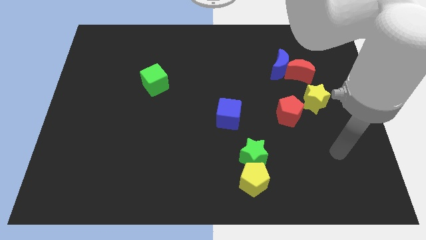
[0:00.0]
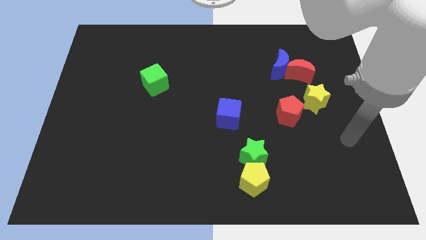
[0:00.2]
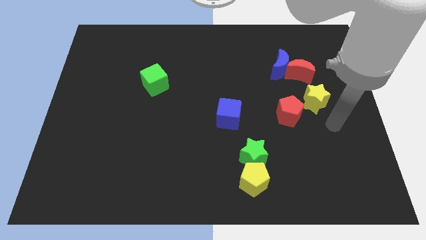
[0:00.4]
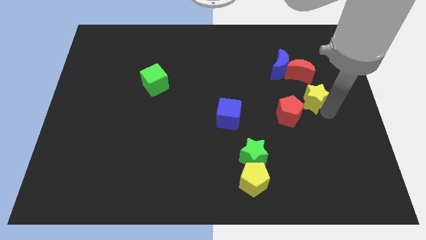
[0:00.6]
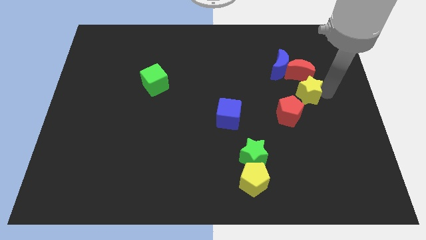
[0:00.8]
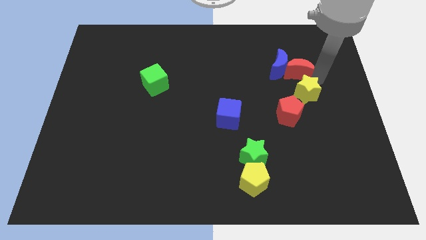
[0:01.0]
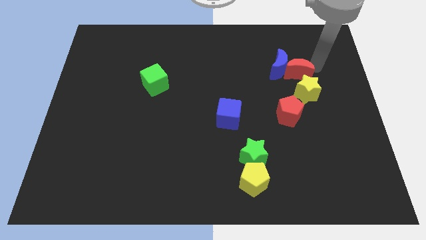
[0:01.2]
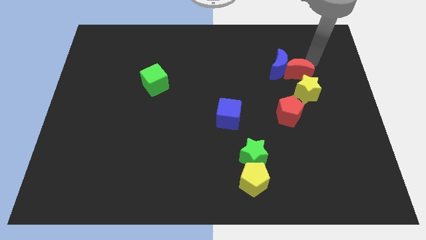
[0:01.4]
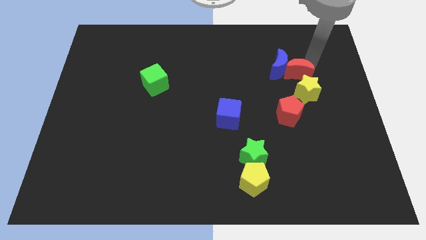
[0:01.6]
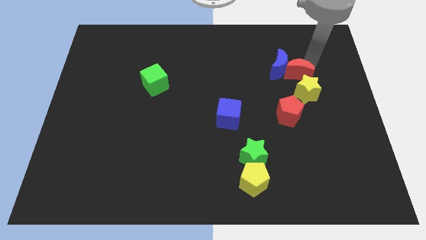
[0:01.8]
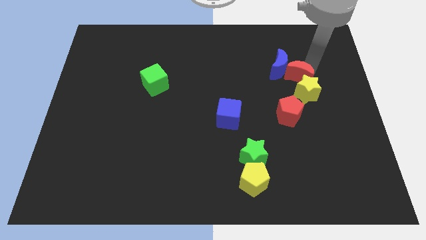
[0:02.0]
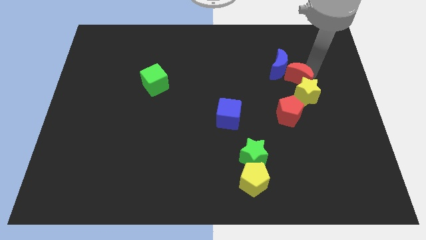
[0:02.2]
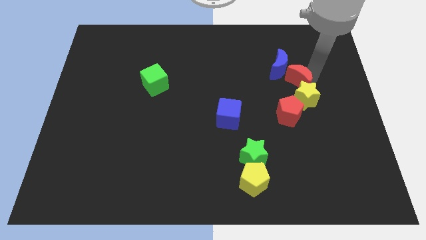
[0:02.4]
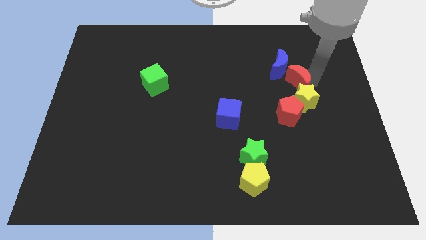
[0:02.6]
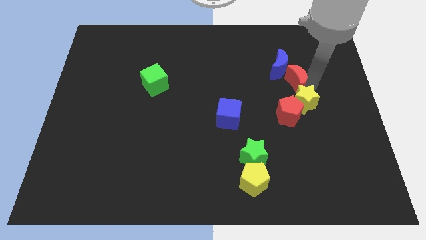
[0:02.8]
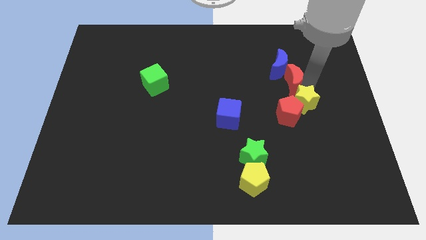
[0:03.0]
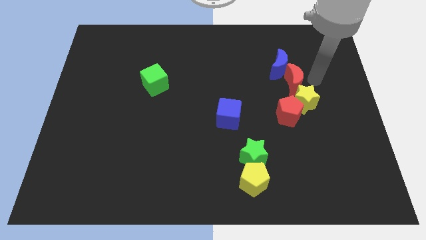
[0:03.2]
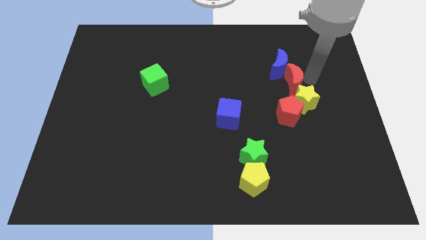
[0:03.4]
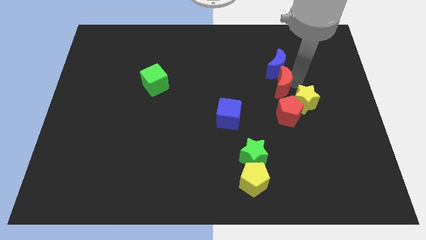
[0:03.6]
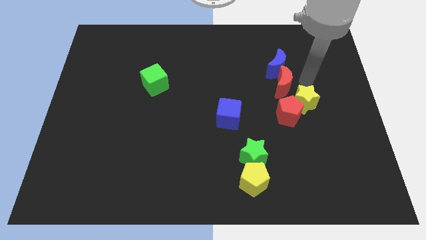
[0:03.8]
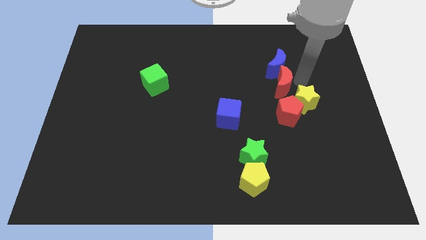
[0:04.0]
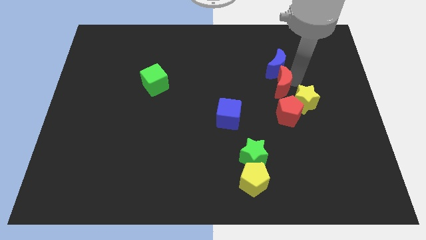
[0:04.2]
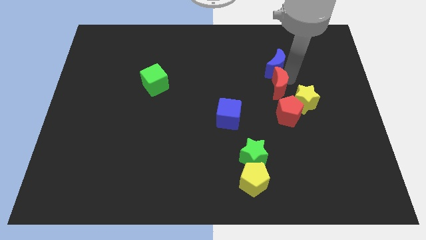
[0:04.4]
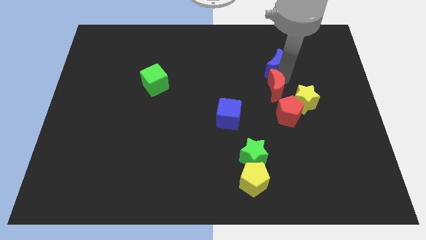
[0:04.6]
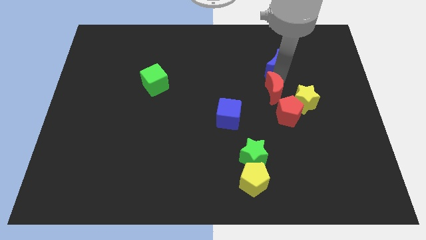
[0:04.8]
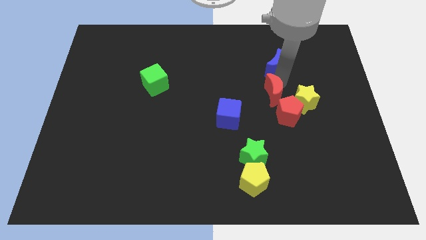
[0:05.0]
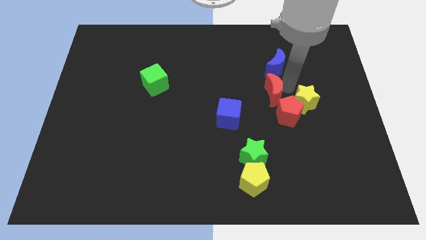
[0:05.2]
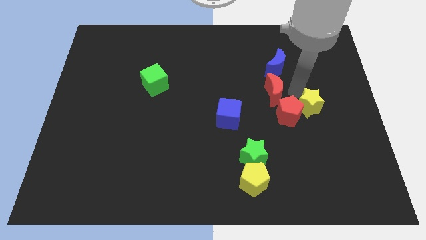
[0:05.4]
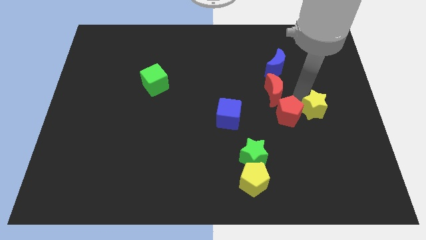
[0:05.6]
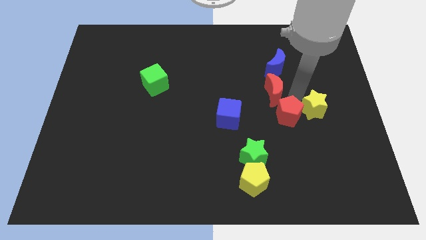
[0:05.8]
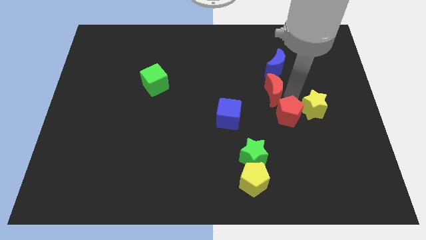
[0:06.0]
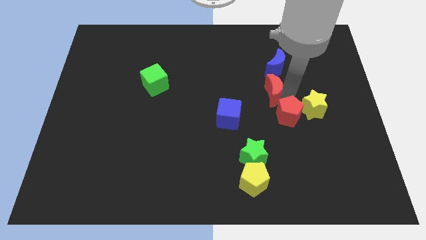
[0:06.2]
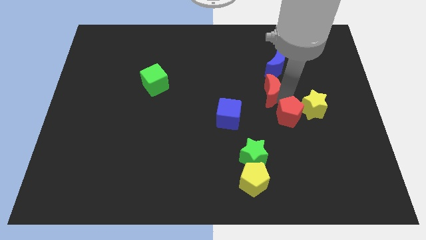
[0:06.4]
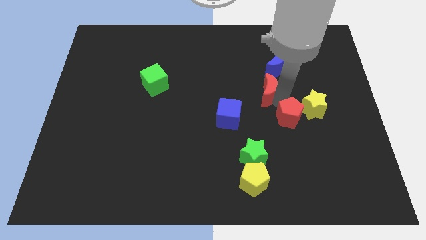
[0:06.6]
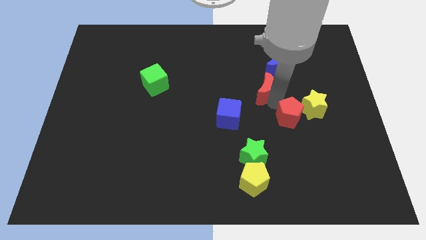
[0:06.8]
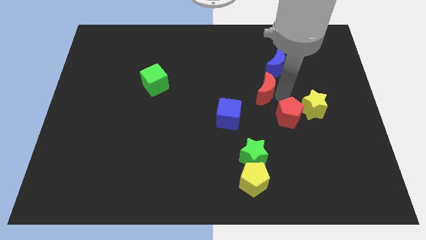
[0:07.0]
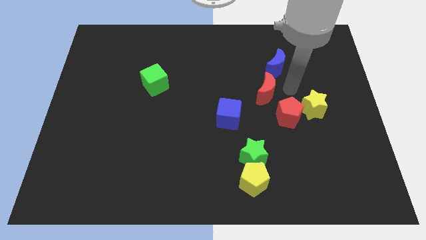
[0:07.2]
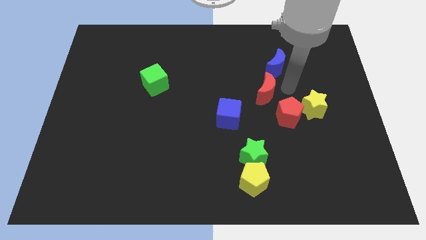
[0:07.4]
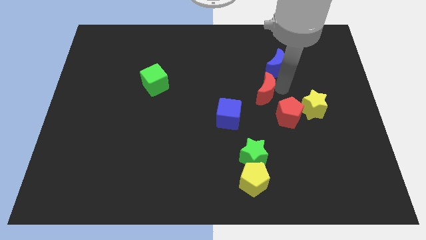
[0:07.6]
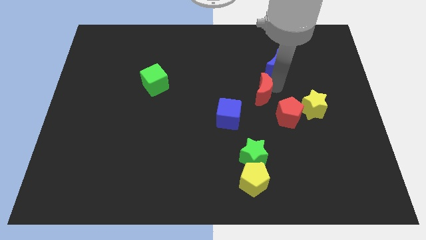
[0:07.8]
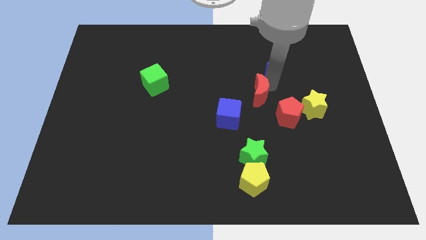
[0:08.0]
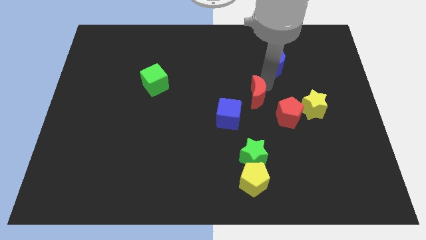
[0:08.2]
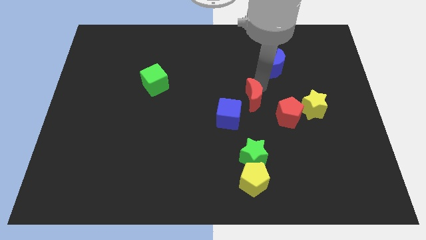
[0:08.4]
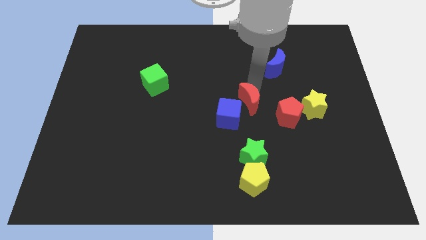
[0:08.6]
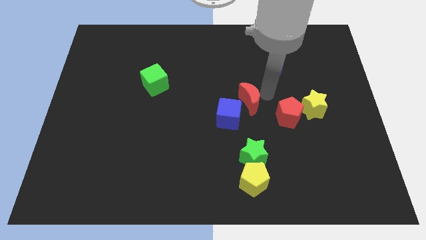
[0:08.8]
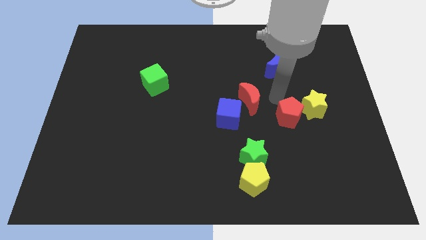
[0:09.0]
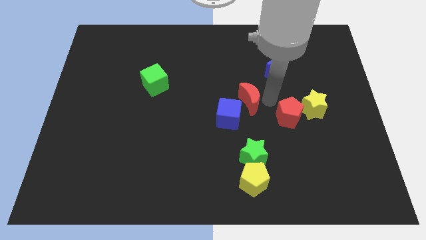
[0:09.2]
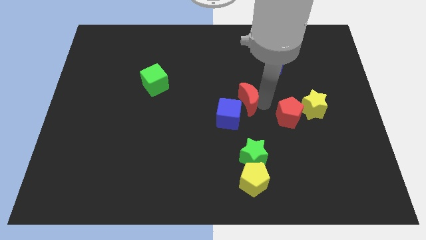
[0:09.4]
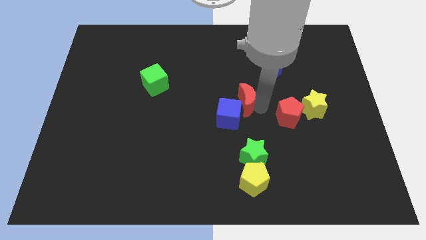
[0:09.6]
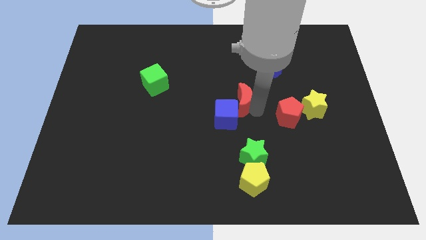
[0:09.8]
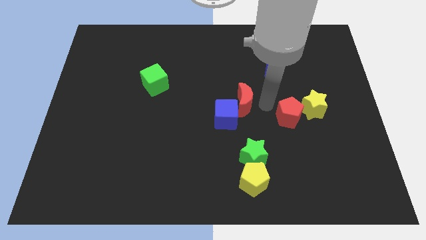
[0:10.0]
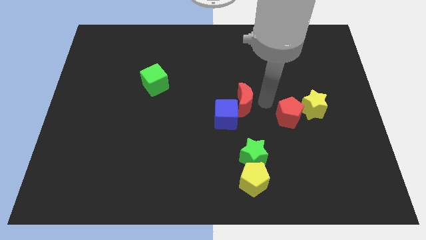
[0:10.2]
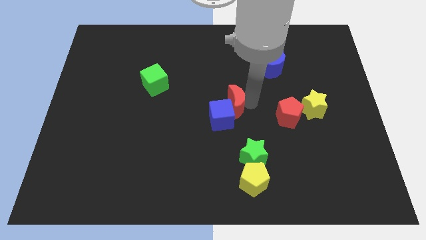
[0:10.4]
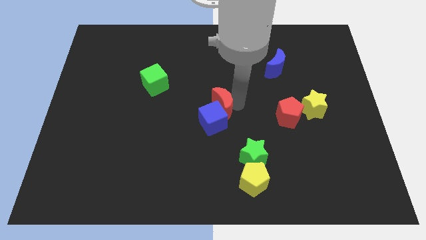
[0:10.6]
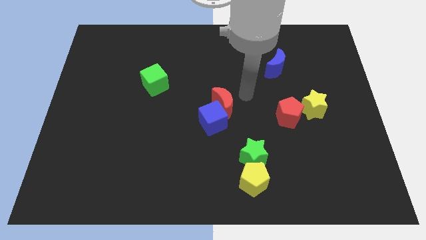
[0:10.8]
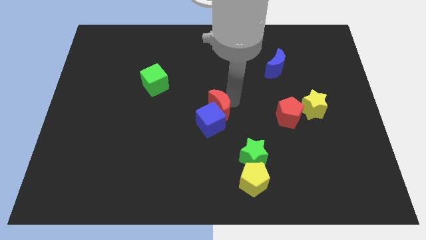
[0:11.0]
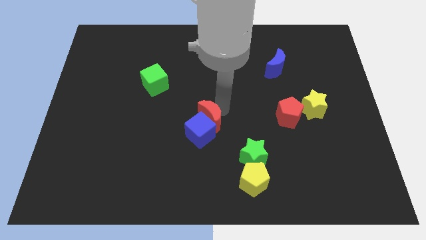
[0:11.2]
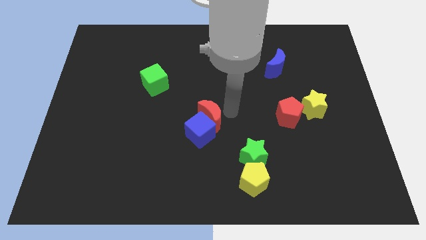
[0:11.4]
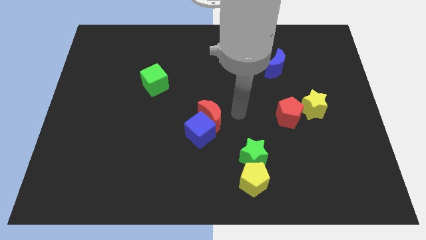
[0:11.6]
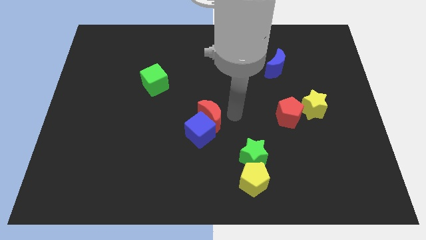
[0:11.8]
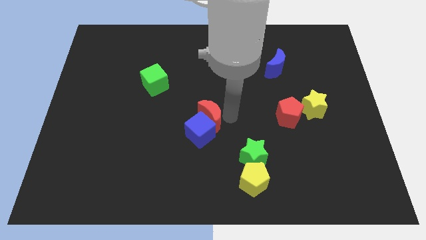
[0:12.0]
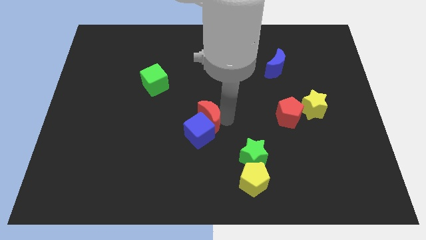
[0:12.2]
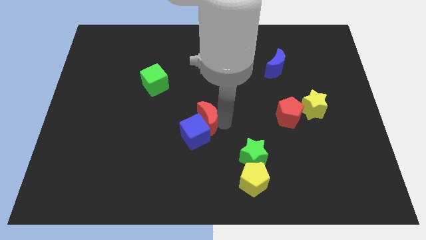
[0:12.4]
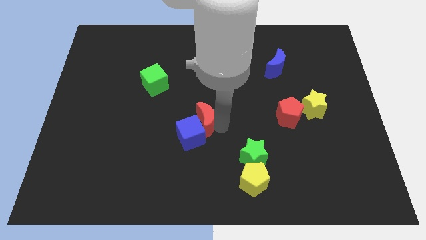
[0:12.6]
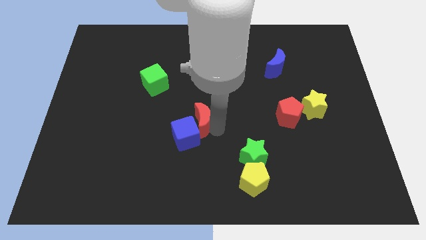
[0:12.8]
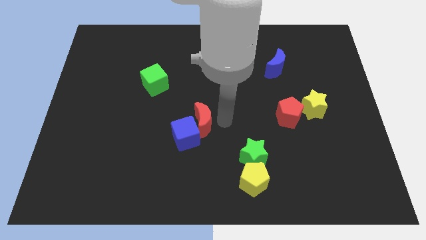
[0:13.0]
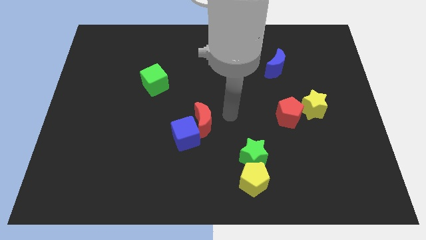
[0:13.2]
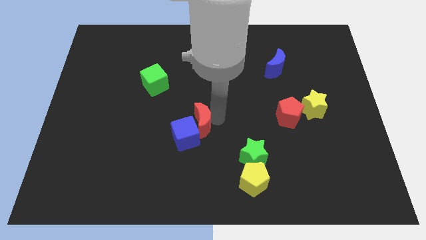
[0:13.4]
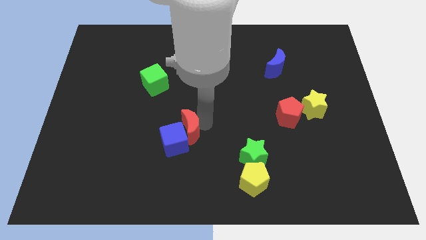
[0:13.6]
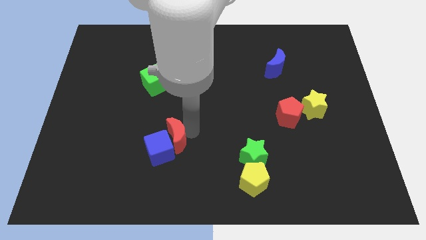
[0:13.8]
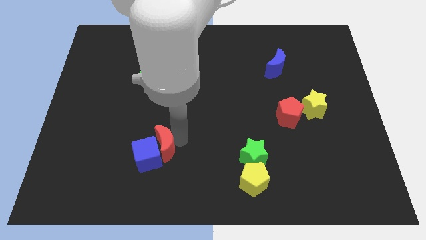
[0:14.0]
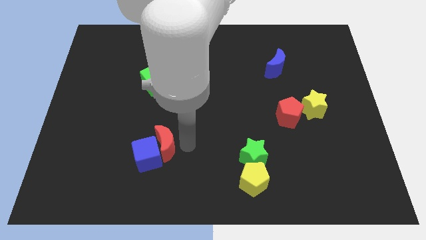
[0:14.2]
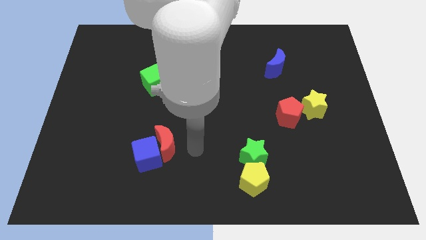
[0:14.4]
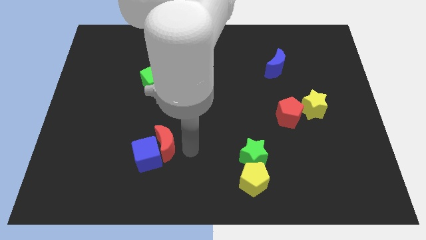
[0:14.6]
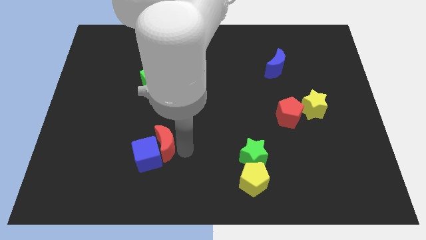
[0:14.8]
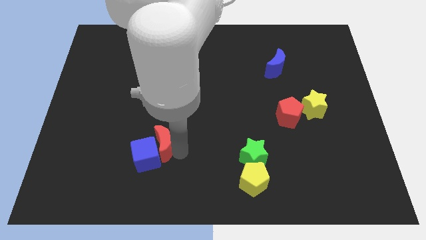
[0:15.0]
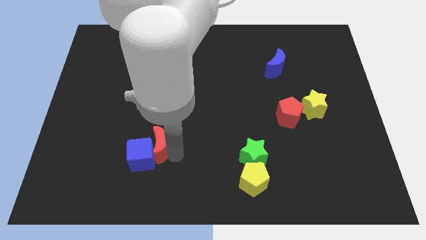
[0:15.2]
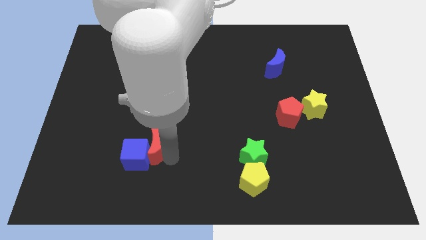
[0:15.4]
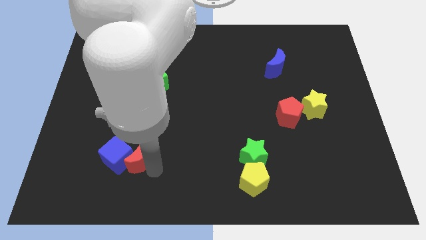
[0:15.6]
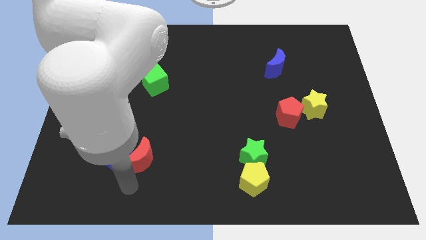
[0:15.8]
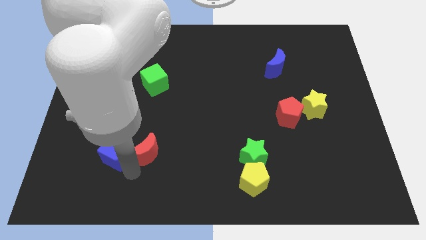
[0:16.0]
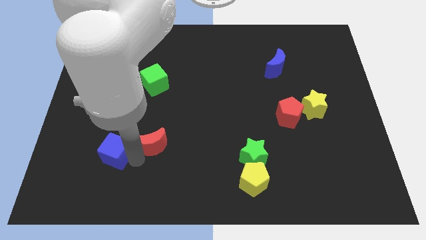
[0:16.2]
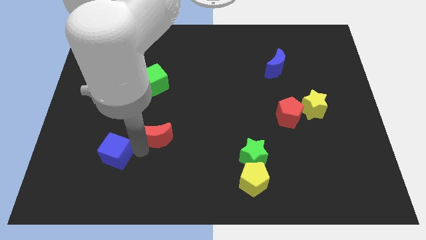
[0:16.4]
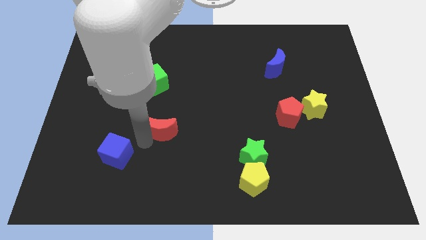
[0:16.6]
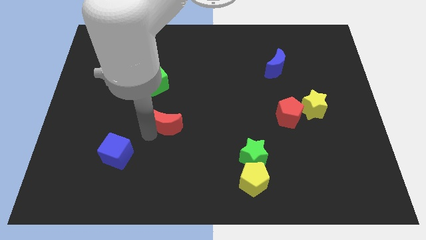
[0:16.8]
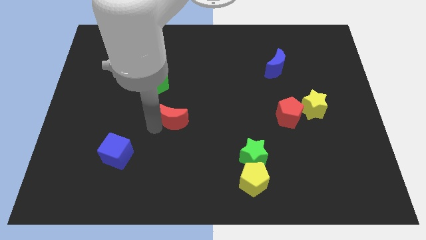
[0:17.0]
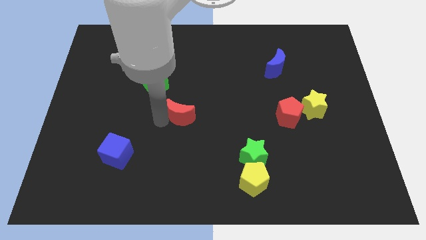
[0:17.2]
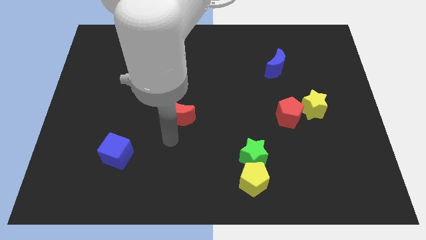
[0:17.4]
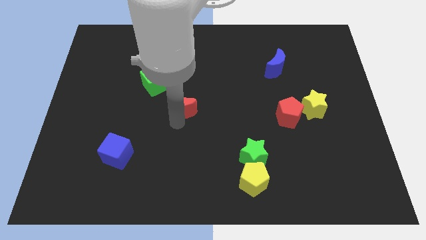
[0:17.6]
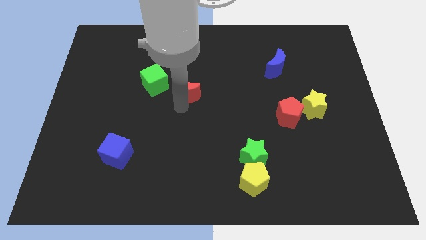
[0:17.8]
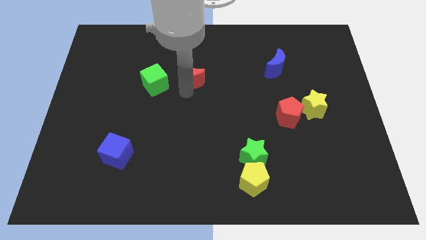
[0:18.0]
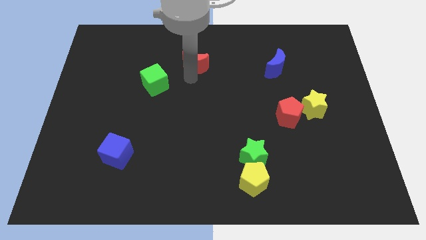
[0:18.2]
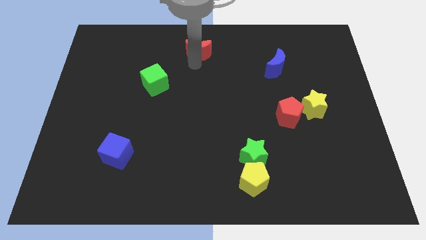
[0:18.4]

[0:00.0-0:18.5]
put the red moon to the top side
